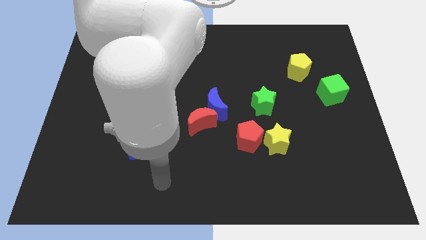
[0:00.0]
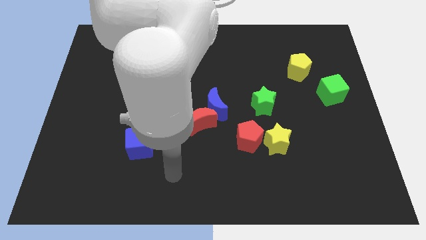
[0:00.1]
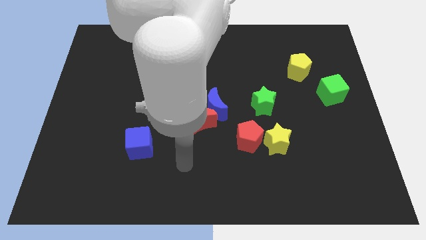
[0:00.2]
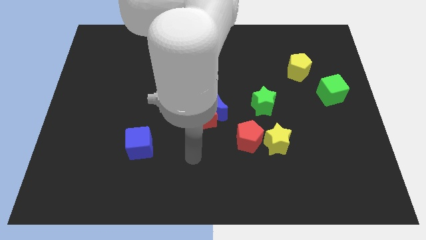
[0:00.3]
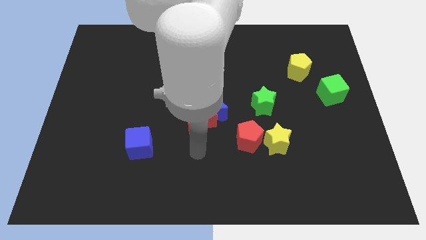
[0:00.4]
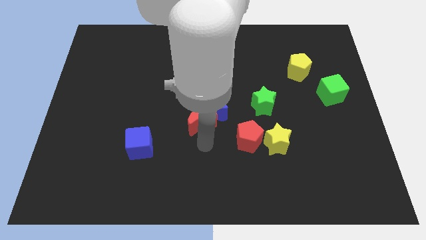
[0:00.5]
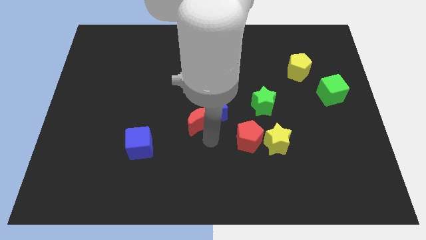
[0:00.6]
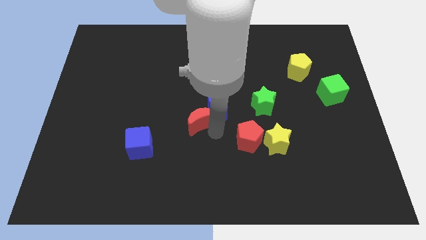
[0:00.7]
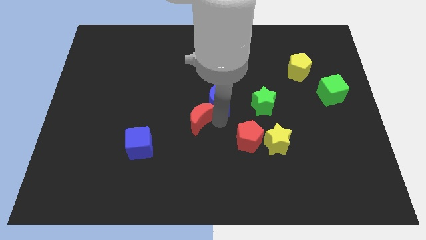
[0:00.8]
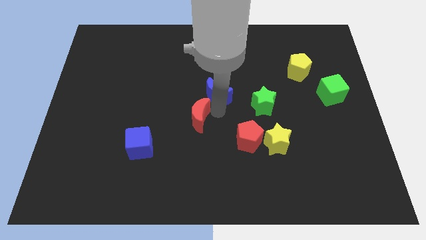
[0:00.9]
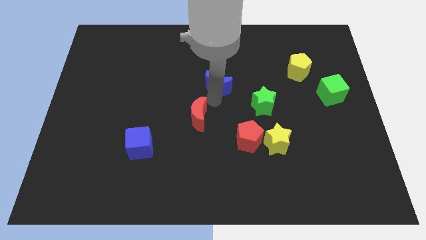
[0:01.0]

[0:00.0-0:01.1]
pull the red moon apart from the blue moon

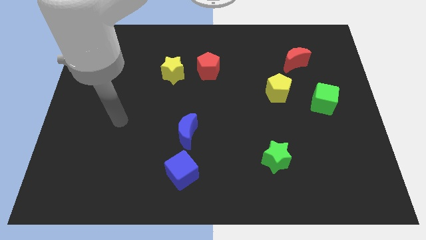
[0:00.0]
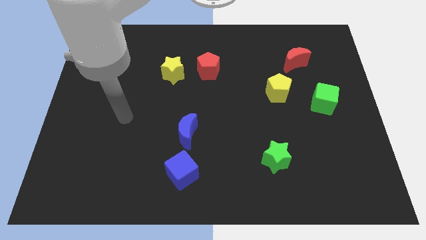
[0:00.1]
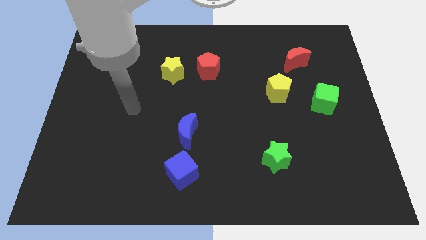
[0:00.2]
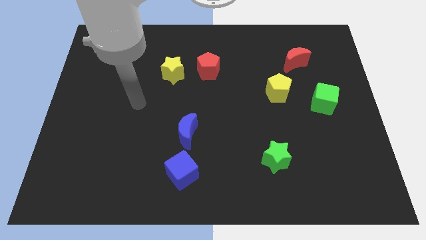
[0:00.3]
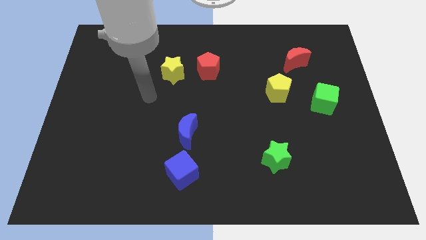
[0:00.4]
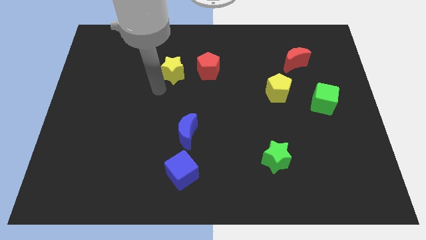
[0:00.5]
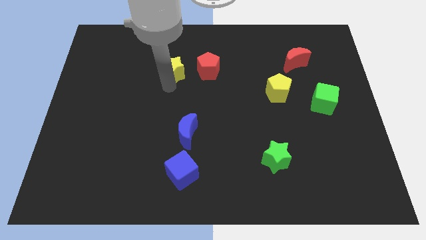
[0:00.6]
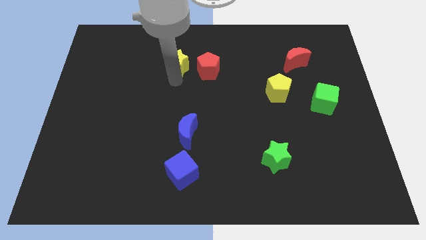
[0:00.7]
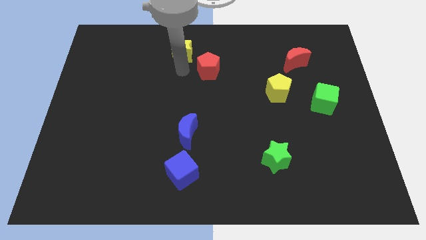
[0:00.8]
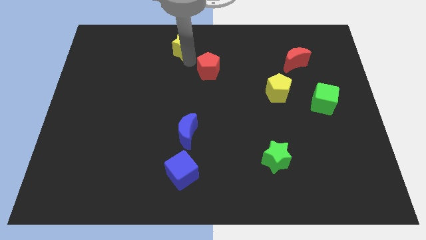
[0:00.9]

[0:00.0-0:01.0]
pull the red pentagon apart from the yellow star

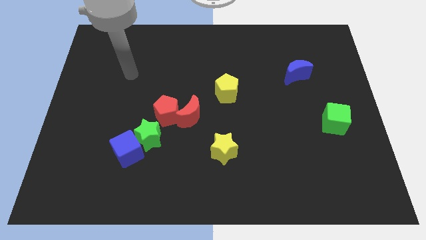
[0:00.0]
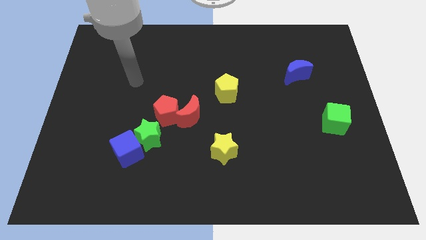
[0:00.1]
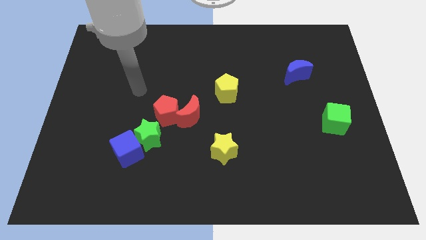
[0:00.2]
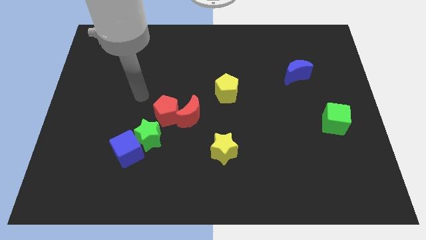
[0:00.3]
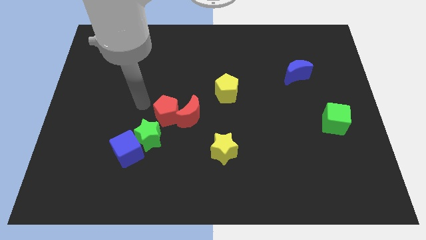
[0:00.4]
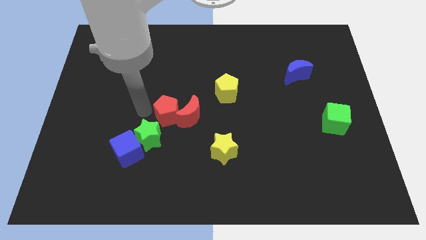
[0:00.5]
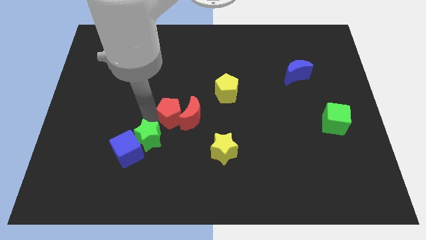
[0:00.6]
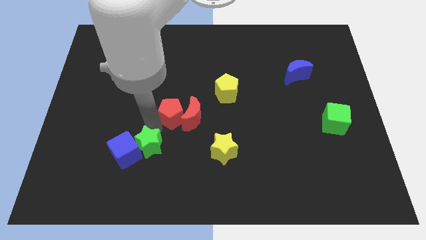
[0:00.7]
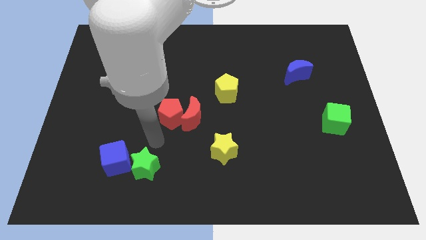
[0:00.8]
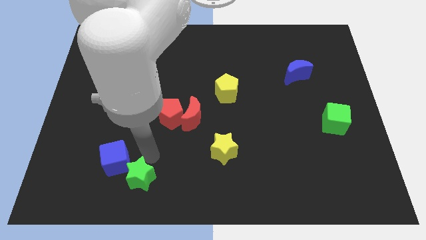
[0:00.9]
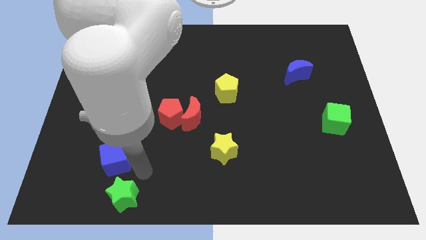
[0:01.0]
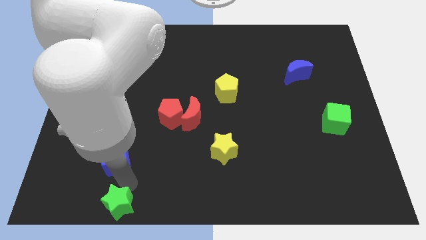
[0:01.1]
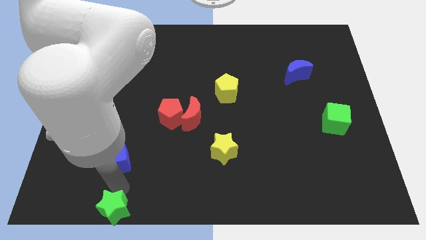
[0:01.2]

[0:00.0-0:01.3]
move the blue cube away from the green star

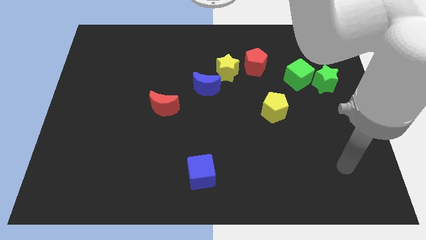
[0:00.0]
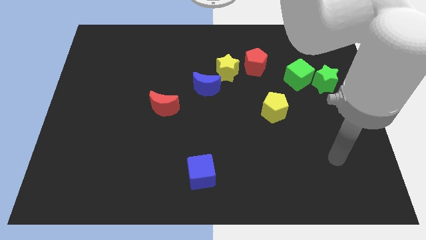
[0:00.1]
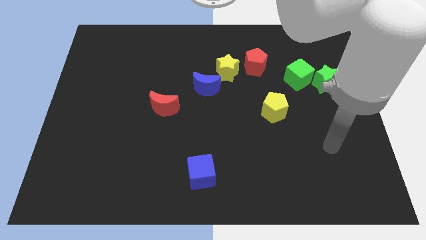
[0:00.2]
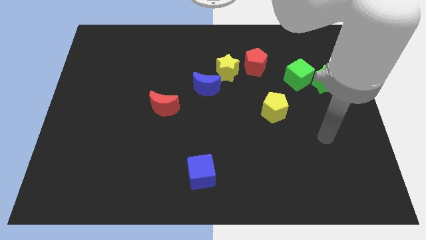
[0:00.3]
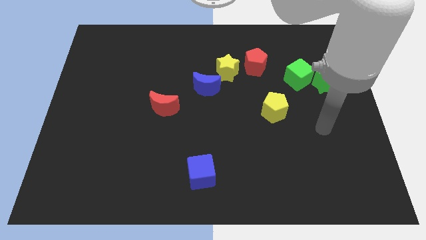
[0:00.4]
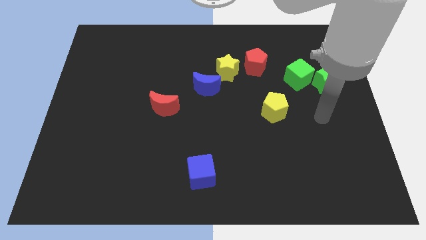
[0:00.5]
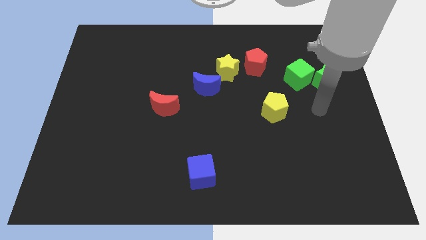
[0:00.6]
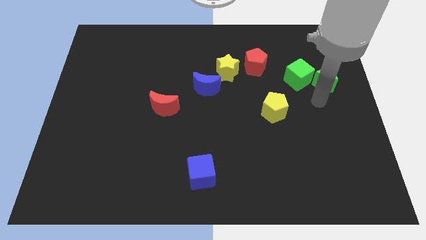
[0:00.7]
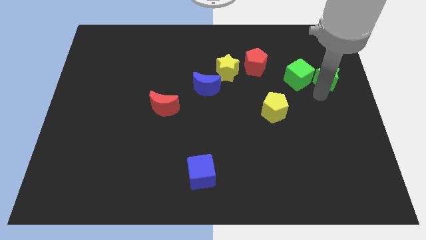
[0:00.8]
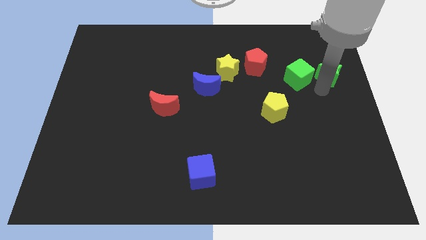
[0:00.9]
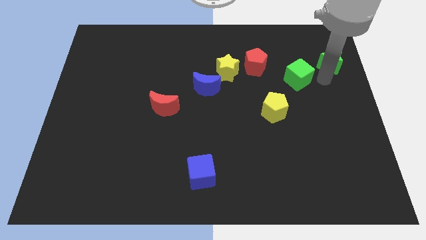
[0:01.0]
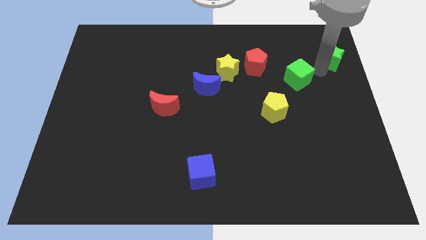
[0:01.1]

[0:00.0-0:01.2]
separate the green cube from the green star

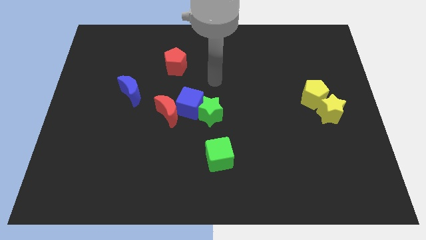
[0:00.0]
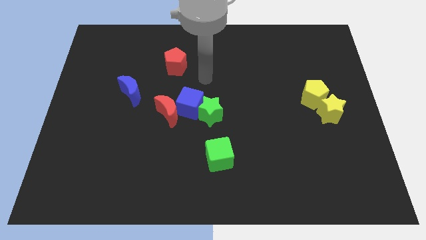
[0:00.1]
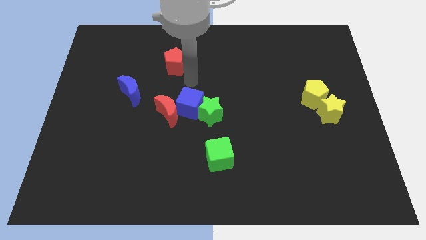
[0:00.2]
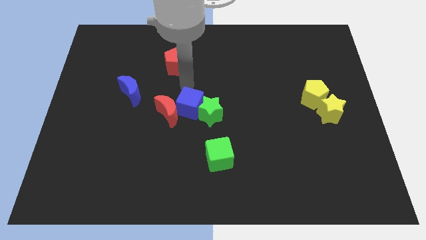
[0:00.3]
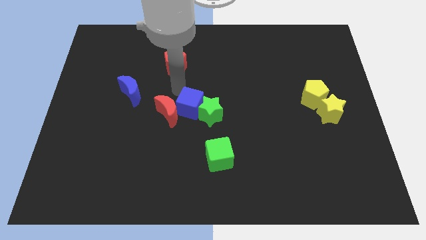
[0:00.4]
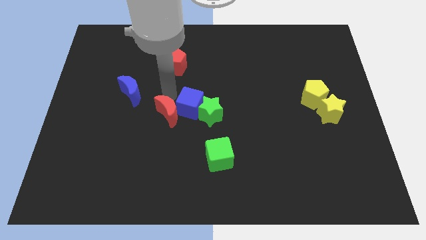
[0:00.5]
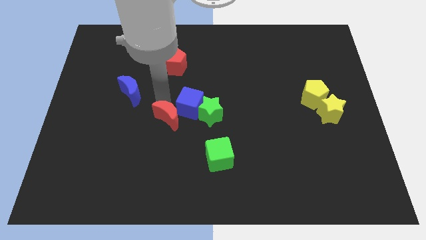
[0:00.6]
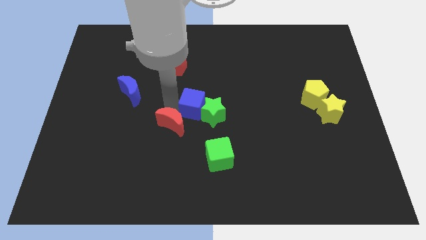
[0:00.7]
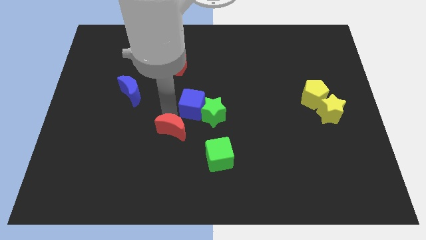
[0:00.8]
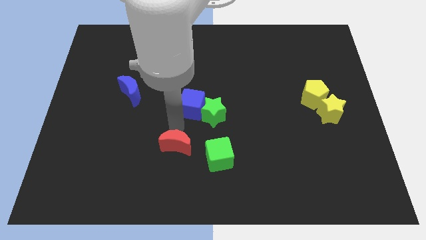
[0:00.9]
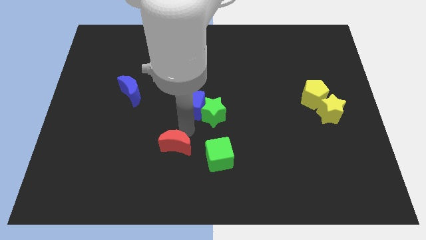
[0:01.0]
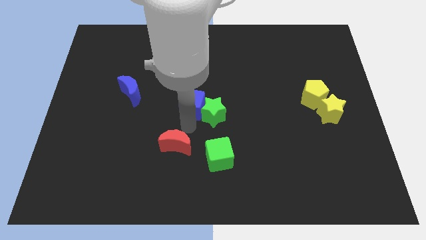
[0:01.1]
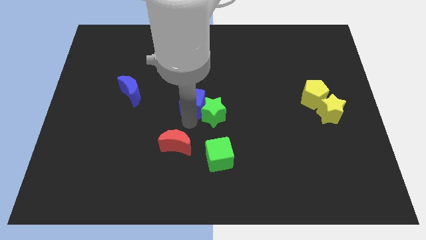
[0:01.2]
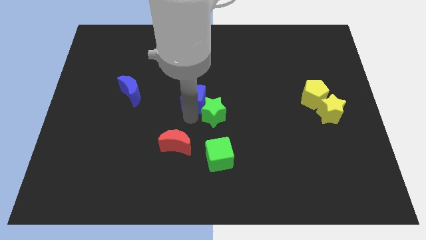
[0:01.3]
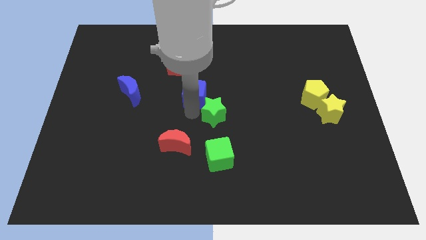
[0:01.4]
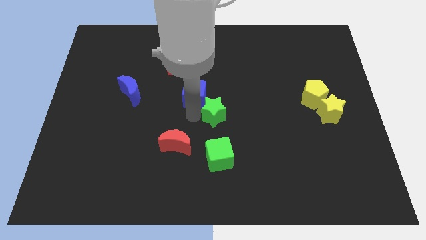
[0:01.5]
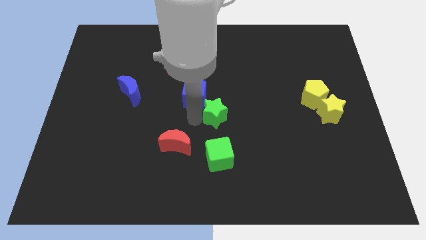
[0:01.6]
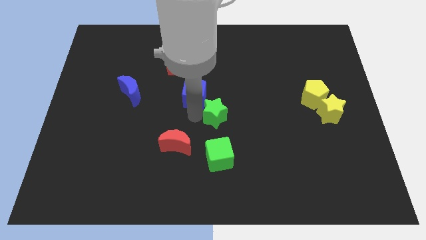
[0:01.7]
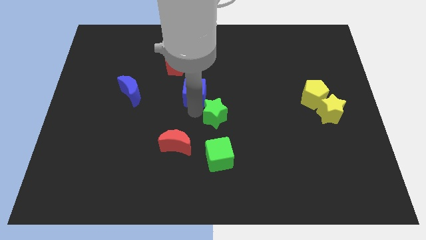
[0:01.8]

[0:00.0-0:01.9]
separate the blue cube from the green star and red moon

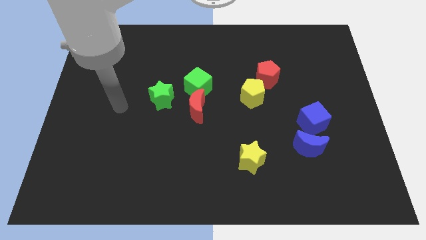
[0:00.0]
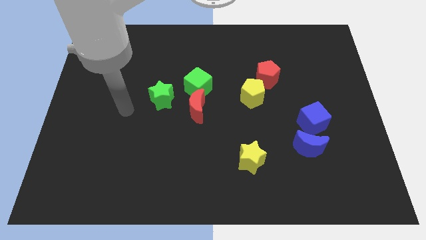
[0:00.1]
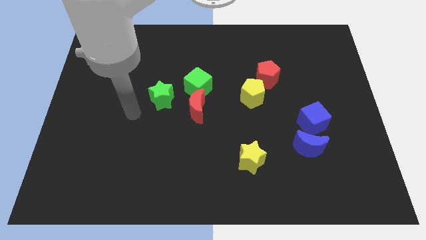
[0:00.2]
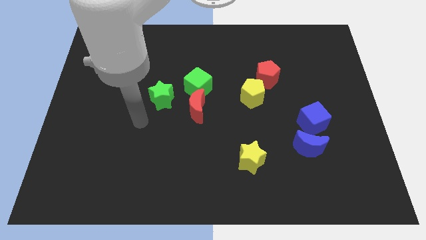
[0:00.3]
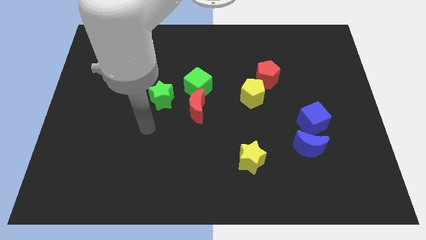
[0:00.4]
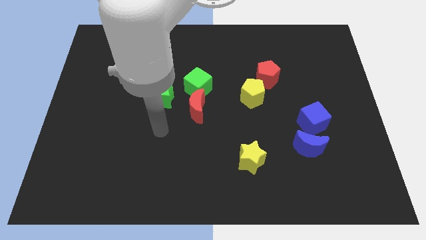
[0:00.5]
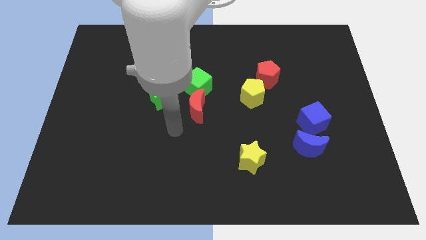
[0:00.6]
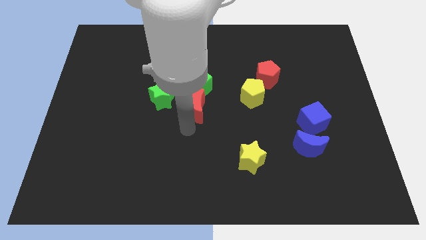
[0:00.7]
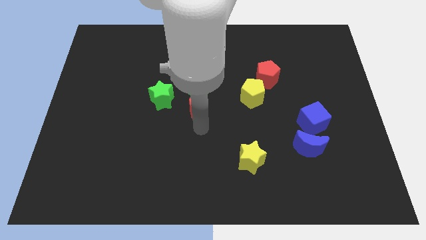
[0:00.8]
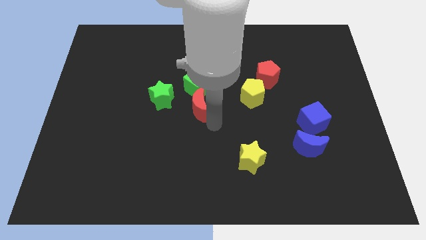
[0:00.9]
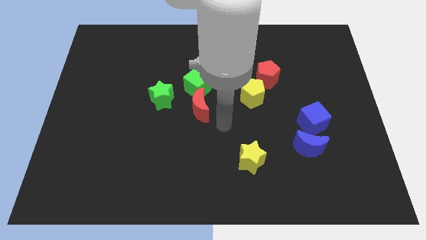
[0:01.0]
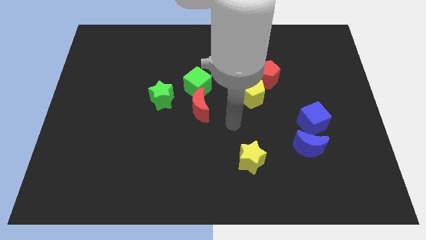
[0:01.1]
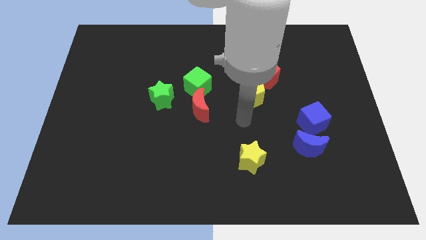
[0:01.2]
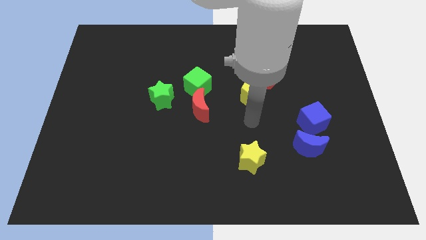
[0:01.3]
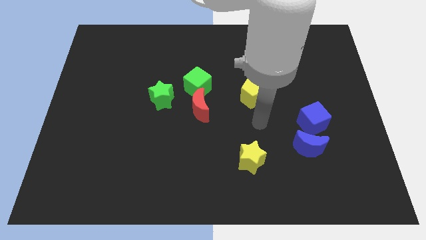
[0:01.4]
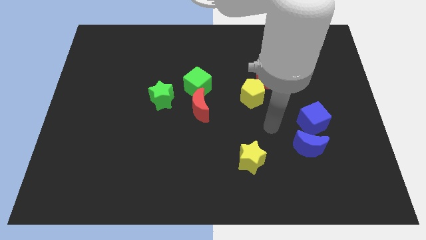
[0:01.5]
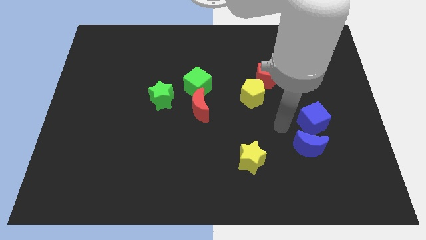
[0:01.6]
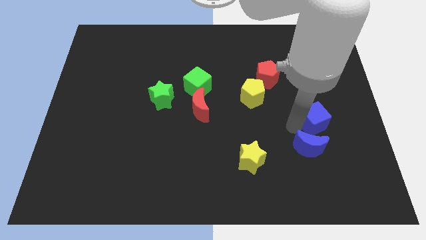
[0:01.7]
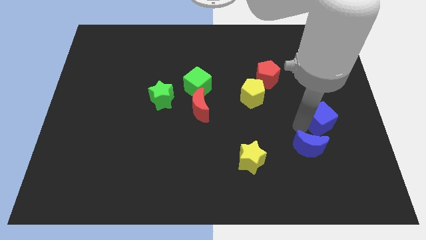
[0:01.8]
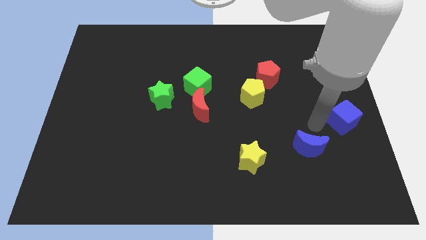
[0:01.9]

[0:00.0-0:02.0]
separate the blue moon from the blue cube

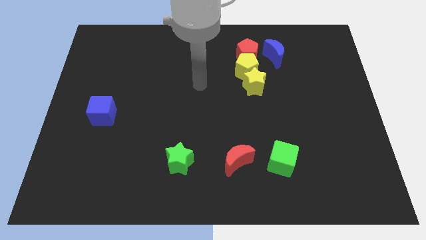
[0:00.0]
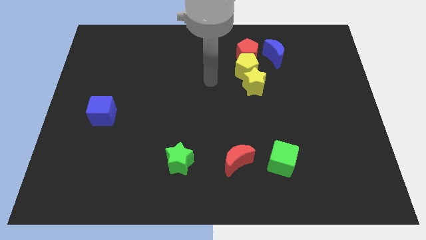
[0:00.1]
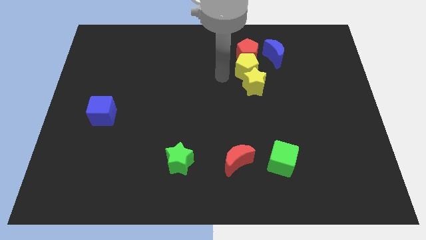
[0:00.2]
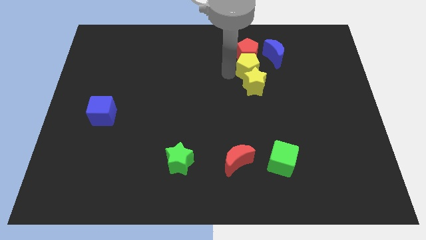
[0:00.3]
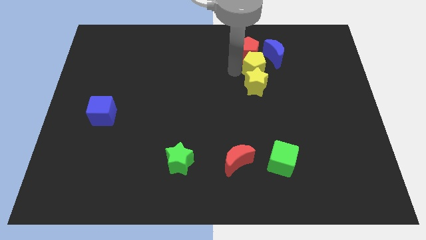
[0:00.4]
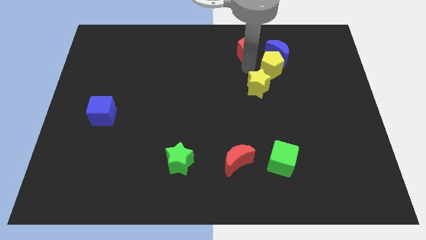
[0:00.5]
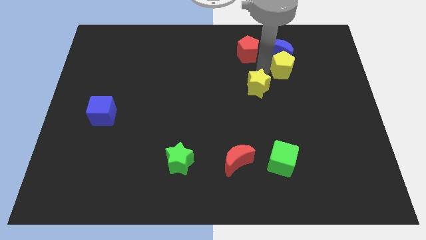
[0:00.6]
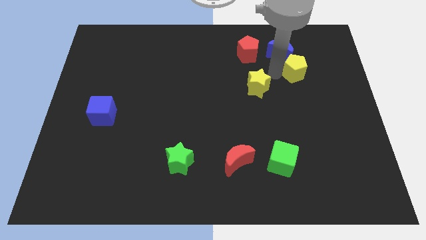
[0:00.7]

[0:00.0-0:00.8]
move the yellow star away from the yellow pentagon
